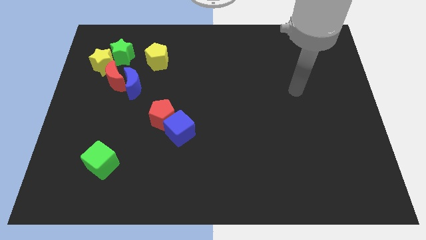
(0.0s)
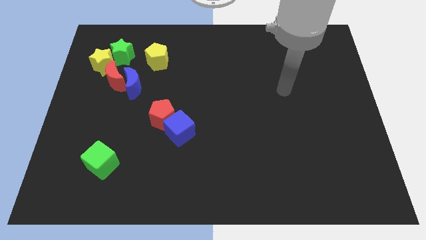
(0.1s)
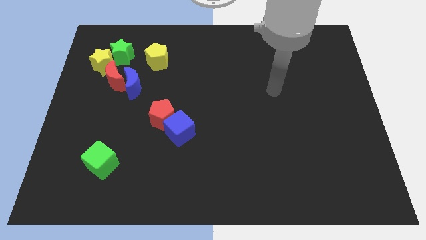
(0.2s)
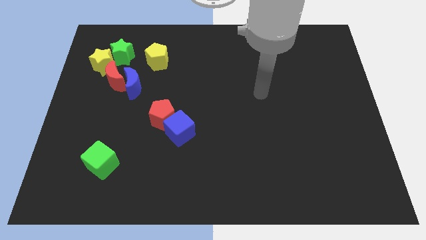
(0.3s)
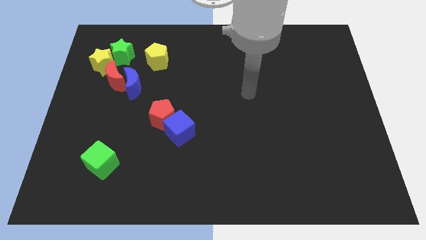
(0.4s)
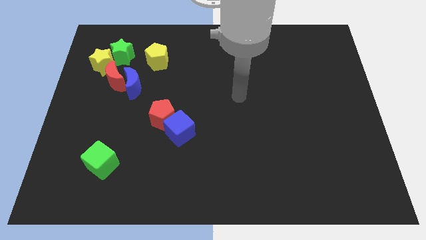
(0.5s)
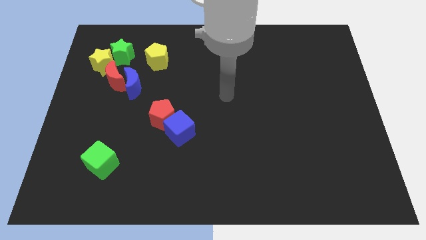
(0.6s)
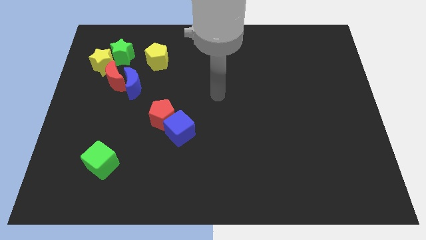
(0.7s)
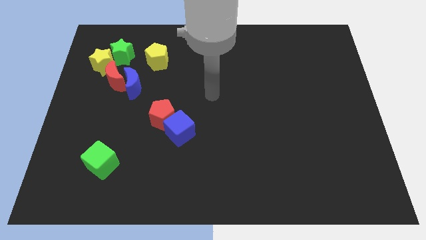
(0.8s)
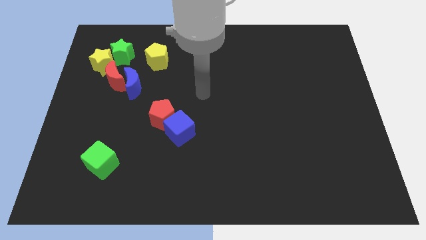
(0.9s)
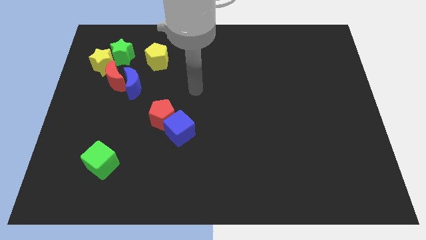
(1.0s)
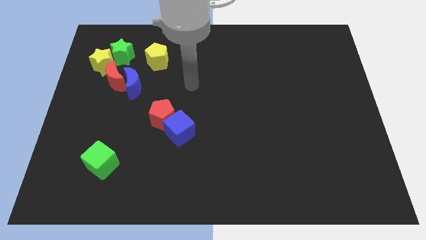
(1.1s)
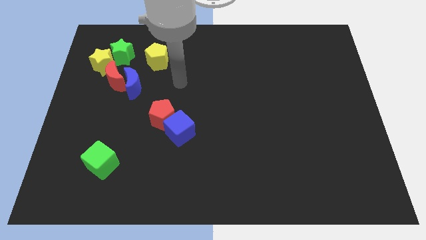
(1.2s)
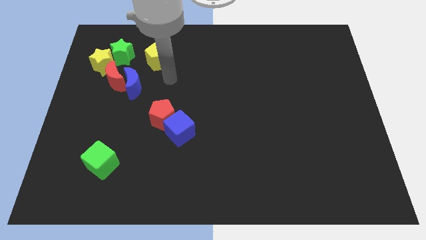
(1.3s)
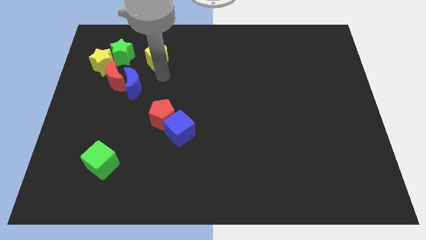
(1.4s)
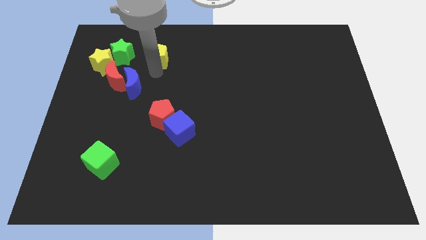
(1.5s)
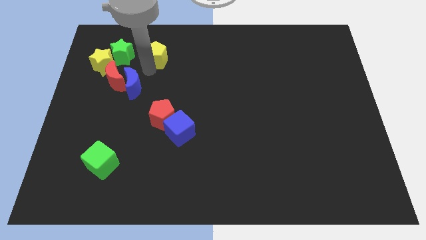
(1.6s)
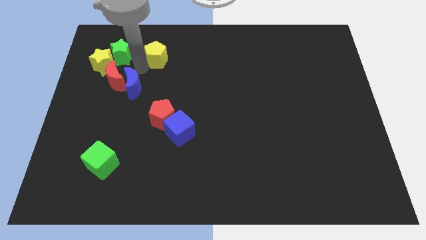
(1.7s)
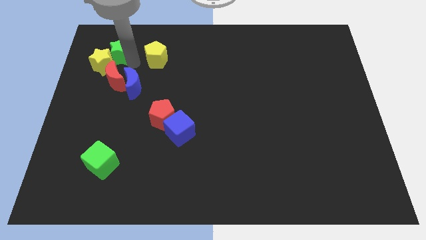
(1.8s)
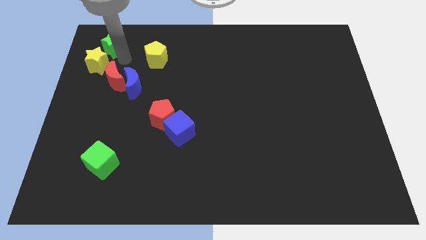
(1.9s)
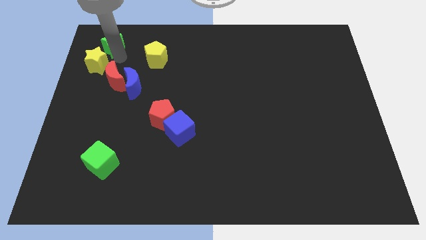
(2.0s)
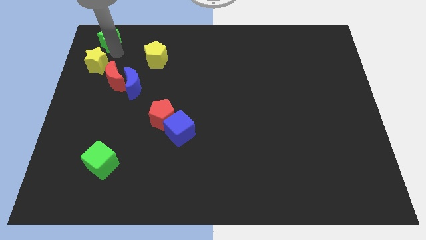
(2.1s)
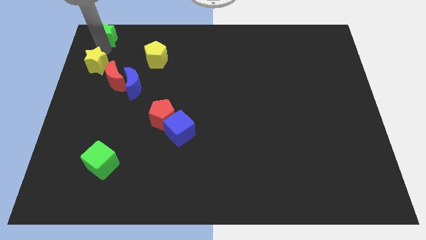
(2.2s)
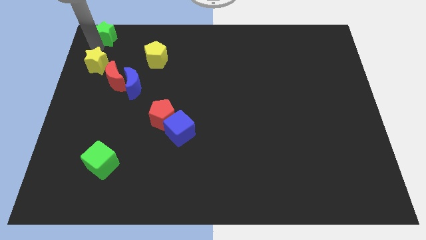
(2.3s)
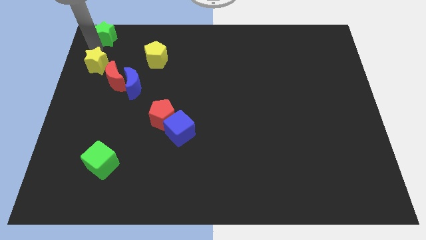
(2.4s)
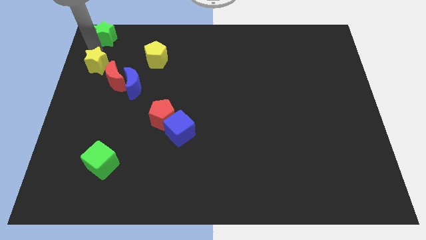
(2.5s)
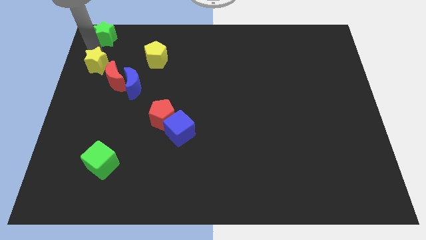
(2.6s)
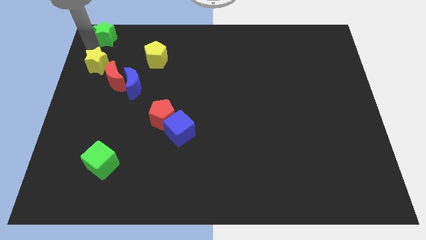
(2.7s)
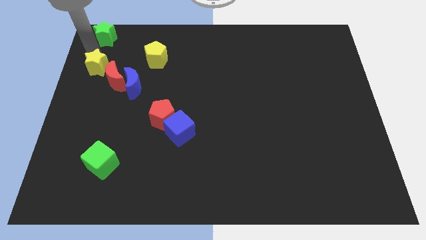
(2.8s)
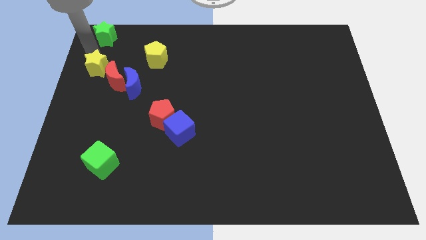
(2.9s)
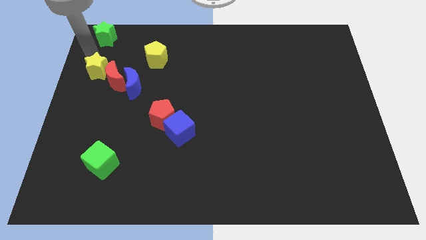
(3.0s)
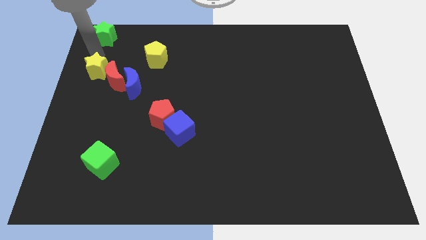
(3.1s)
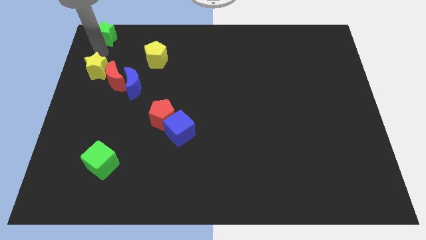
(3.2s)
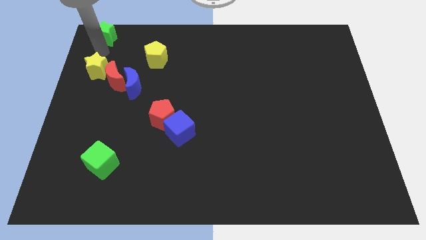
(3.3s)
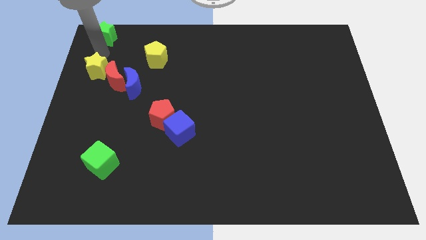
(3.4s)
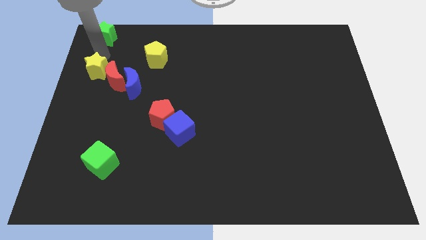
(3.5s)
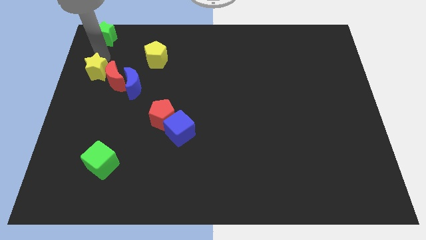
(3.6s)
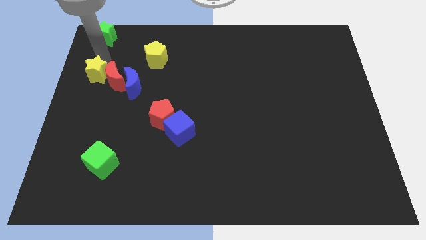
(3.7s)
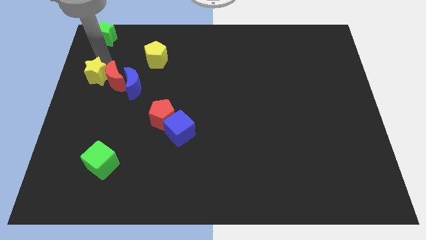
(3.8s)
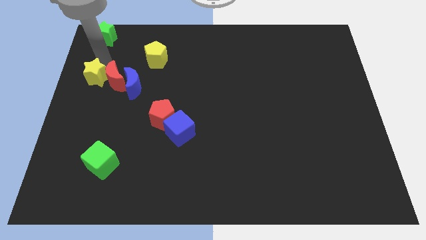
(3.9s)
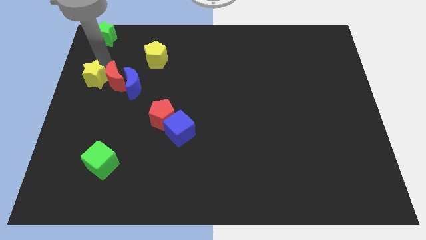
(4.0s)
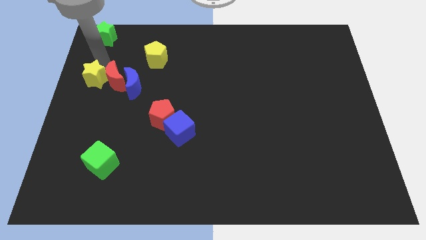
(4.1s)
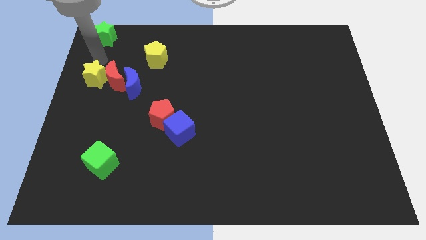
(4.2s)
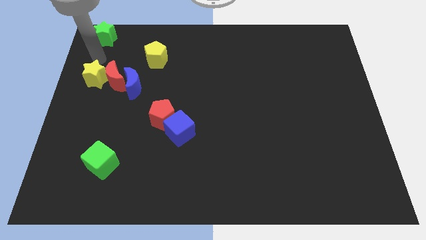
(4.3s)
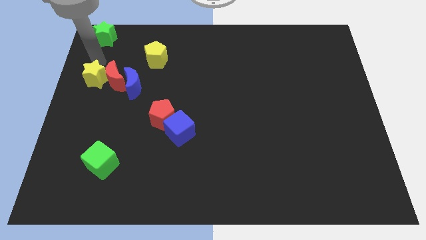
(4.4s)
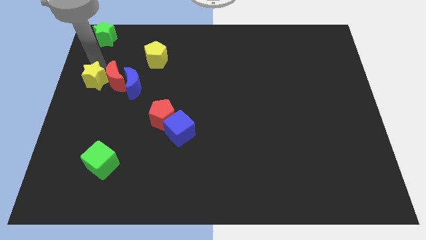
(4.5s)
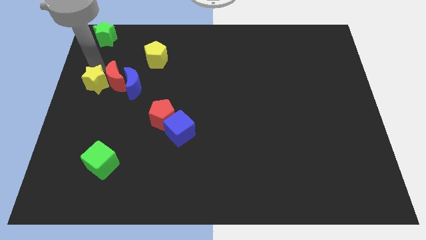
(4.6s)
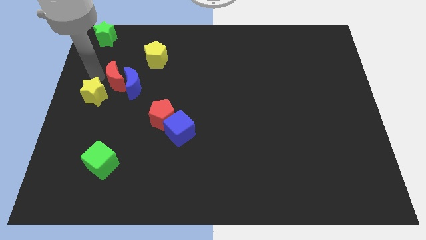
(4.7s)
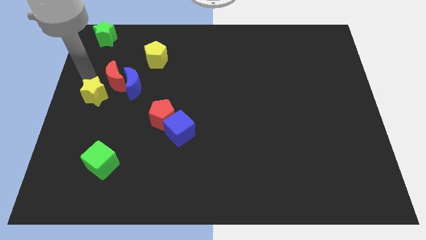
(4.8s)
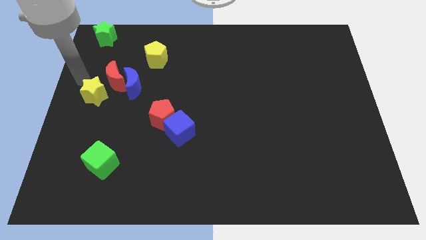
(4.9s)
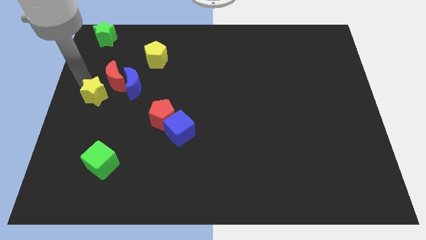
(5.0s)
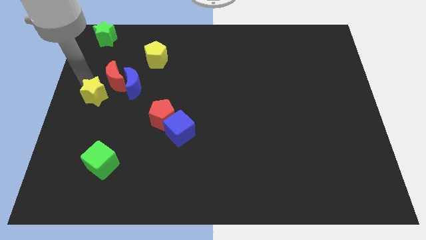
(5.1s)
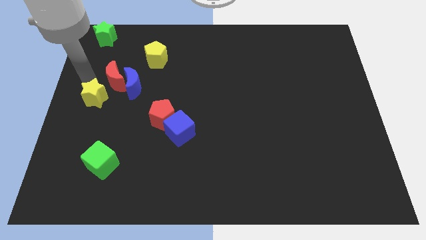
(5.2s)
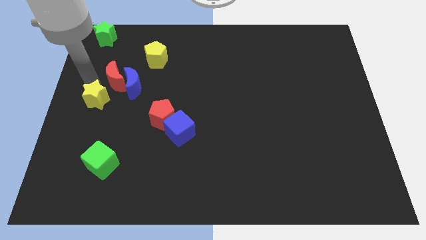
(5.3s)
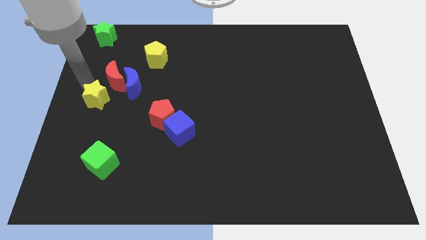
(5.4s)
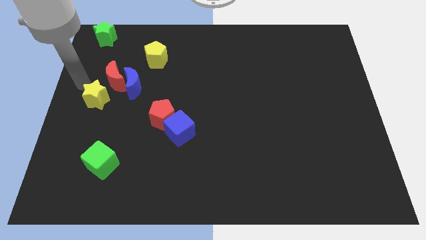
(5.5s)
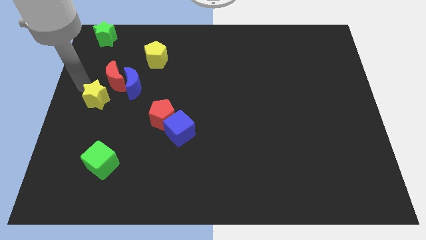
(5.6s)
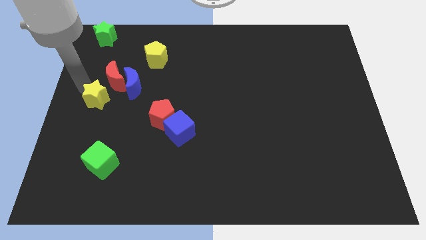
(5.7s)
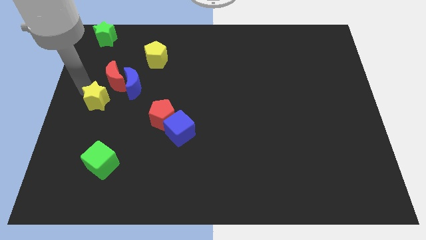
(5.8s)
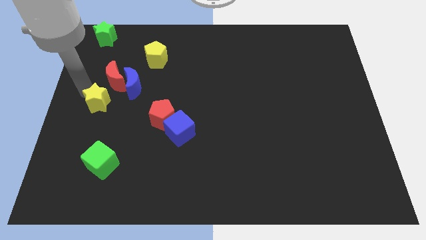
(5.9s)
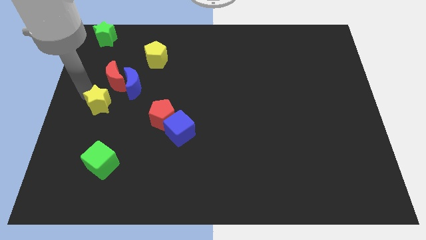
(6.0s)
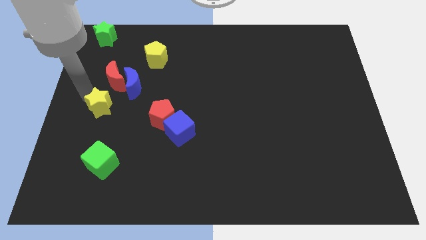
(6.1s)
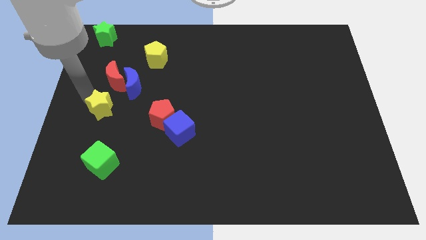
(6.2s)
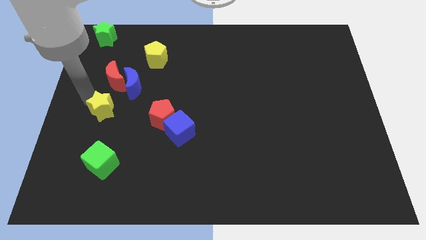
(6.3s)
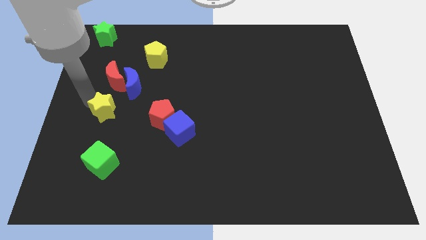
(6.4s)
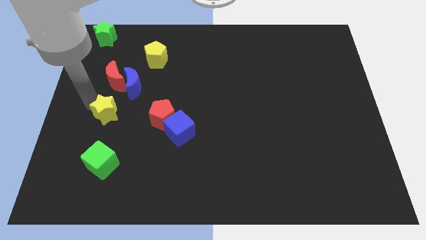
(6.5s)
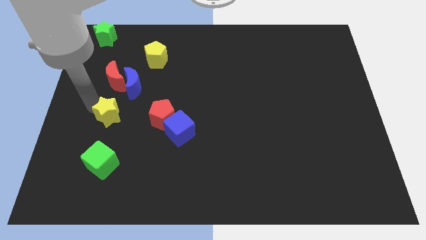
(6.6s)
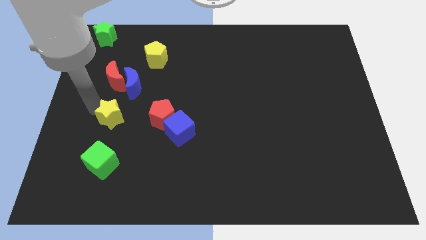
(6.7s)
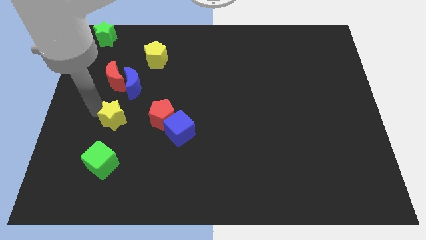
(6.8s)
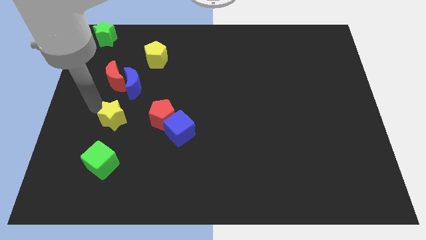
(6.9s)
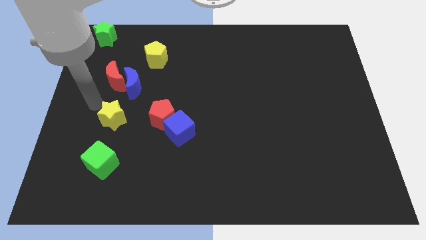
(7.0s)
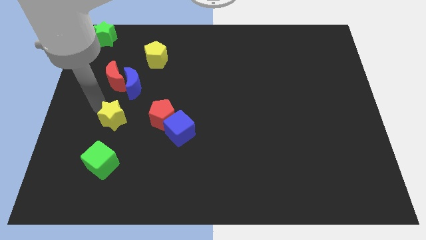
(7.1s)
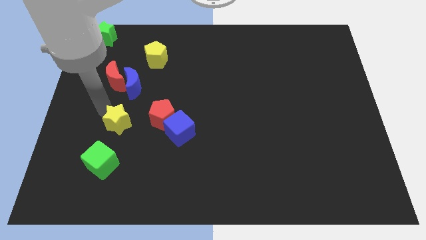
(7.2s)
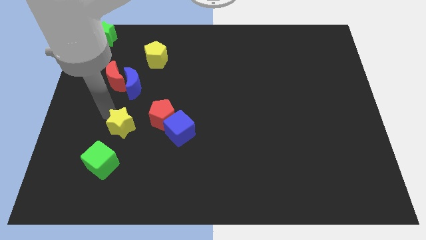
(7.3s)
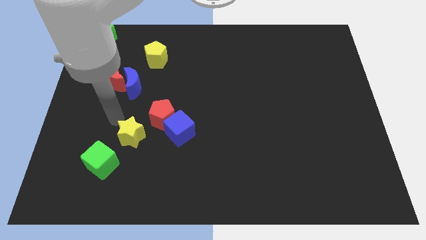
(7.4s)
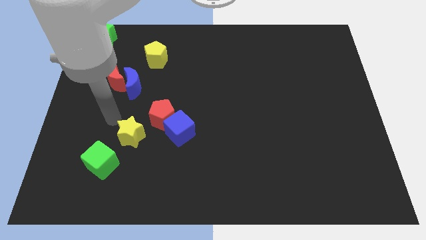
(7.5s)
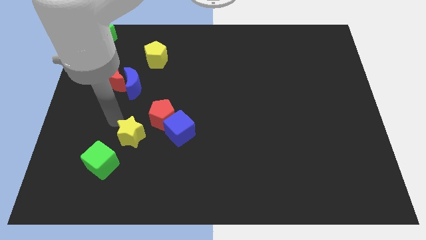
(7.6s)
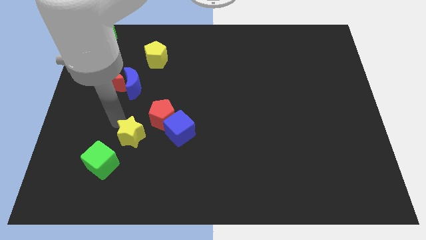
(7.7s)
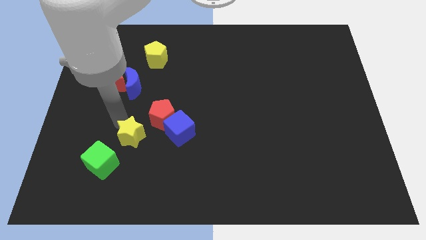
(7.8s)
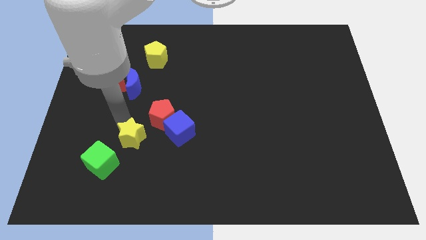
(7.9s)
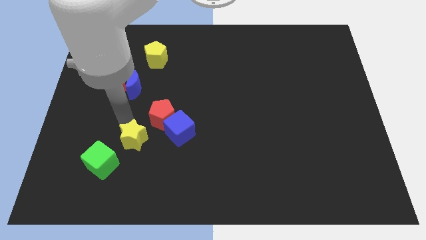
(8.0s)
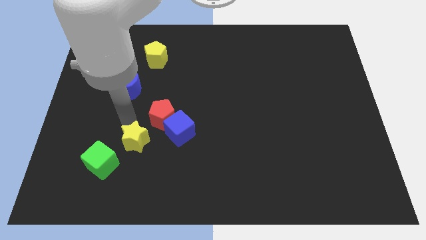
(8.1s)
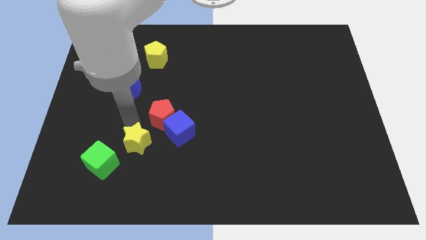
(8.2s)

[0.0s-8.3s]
push the yellow star diagonally down and to the left of the blue cube
